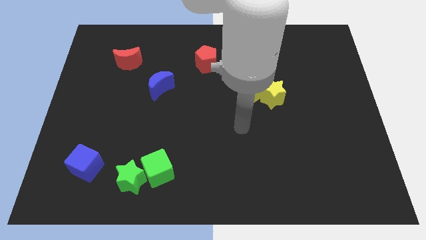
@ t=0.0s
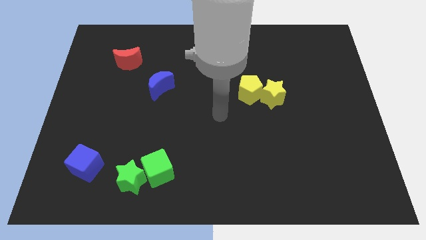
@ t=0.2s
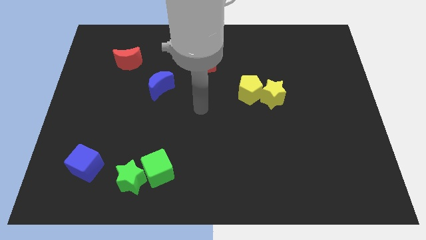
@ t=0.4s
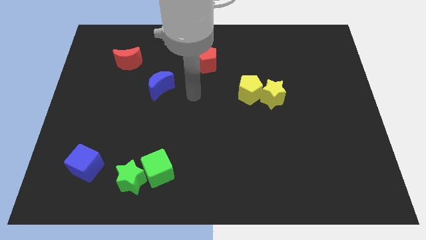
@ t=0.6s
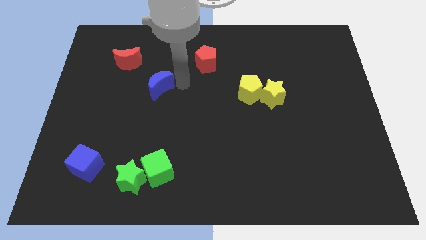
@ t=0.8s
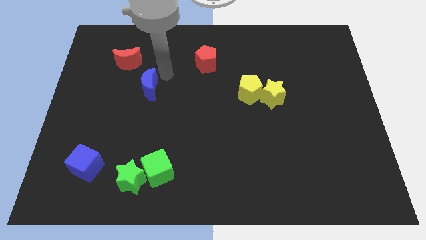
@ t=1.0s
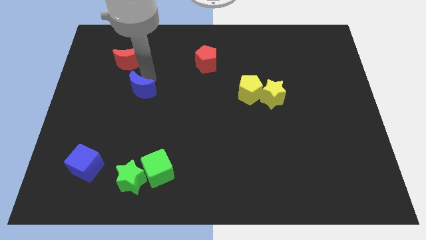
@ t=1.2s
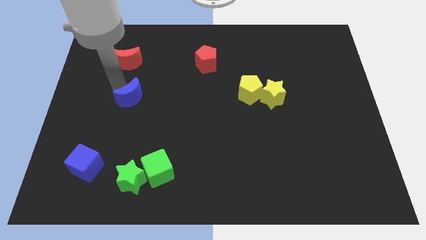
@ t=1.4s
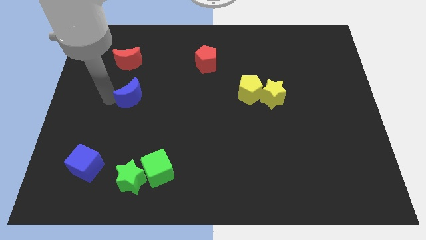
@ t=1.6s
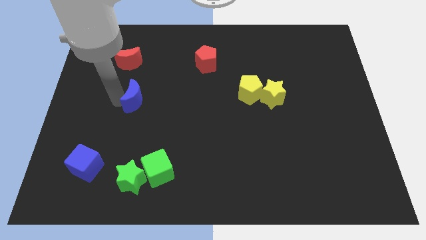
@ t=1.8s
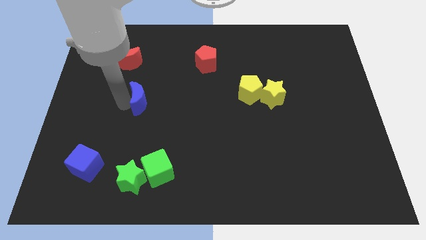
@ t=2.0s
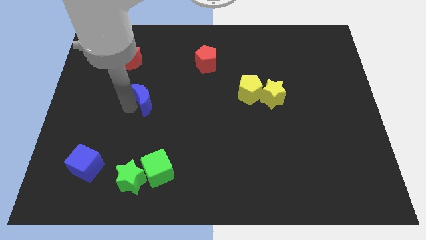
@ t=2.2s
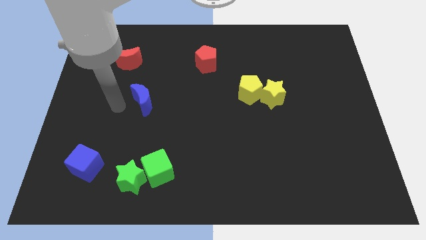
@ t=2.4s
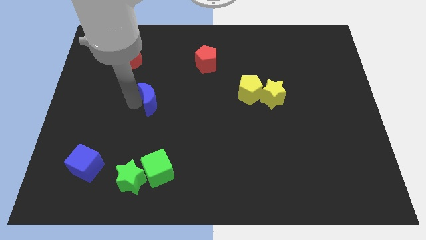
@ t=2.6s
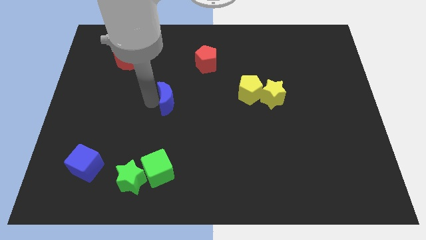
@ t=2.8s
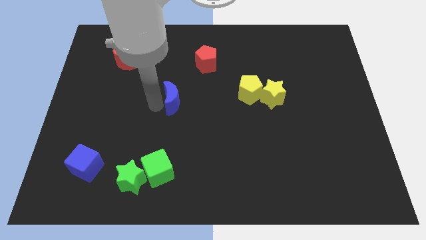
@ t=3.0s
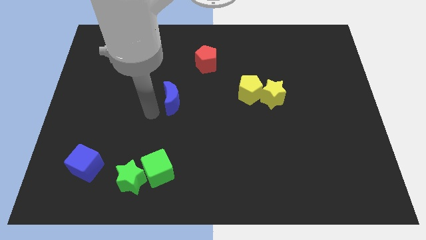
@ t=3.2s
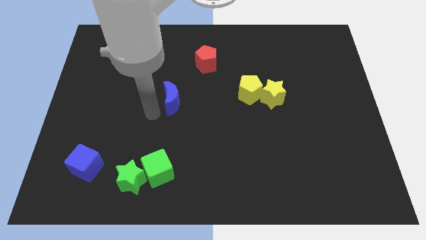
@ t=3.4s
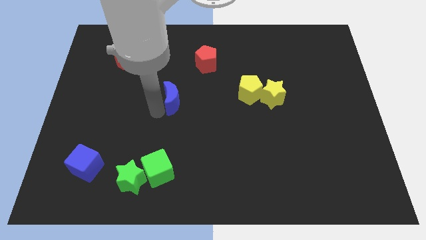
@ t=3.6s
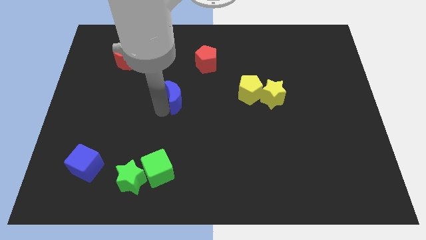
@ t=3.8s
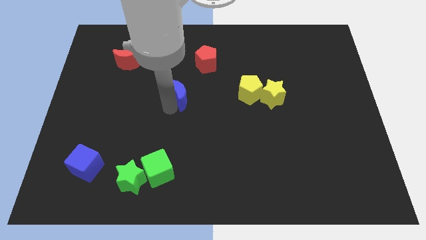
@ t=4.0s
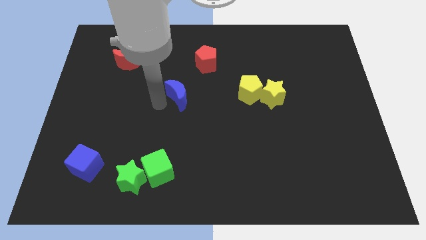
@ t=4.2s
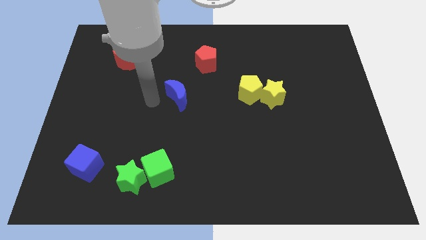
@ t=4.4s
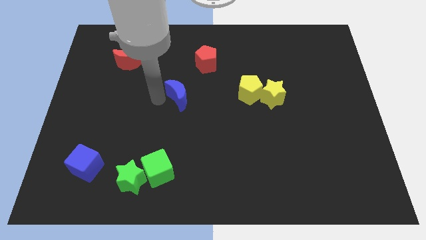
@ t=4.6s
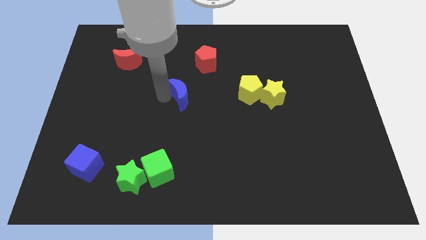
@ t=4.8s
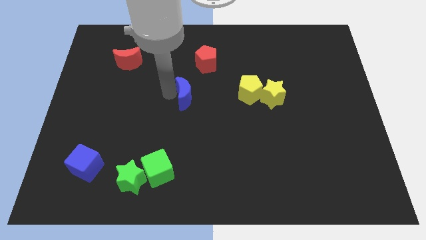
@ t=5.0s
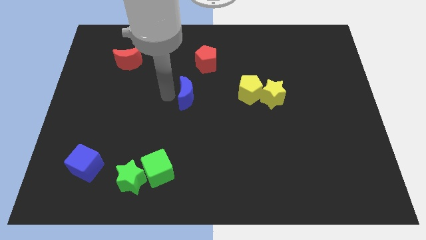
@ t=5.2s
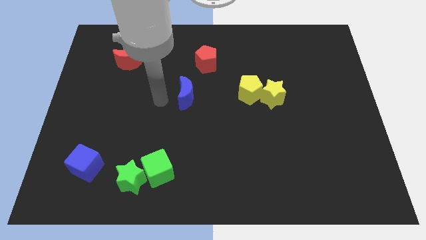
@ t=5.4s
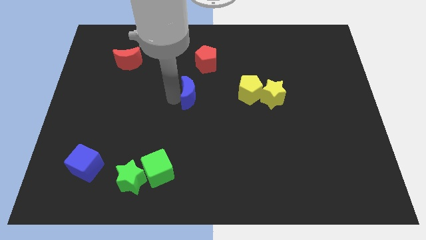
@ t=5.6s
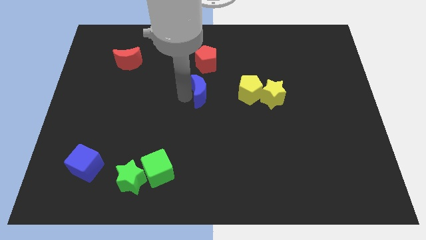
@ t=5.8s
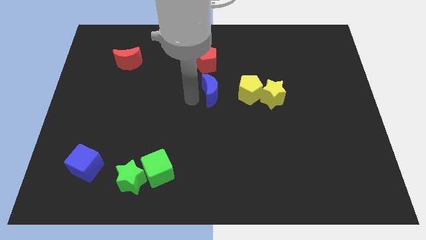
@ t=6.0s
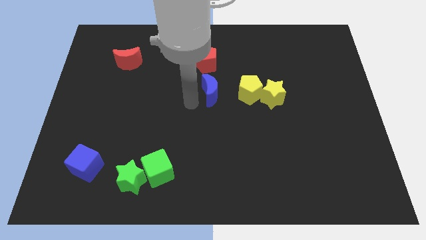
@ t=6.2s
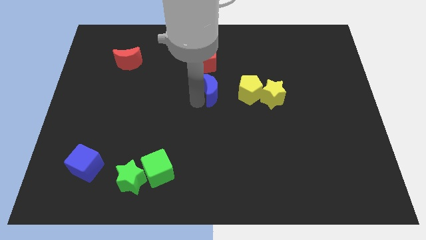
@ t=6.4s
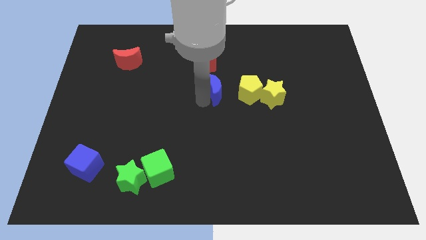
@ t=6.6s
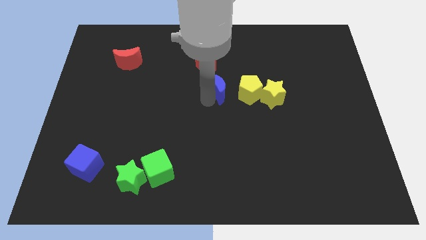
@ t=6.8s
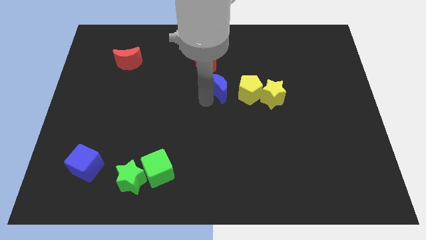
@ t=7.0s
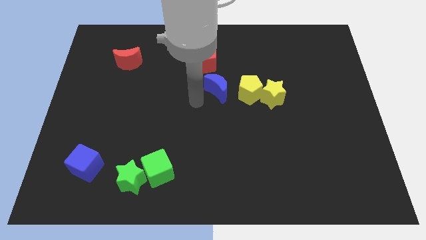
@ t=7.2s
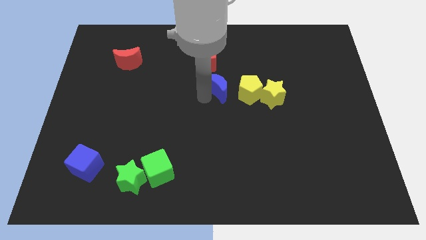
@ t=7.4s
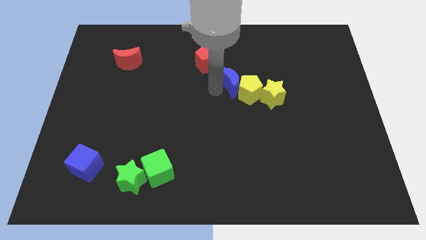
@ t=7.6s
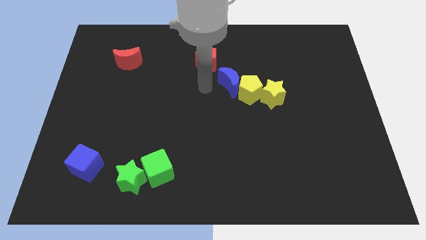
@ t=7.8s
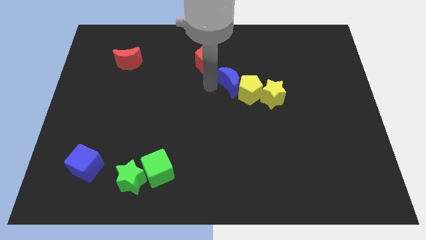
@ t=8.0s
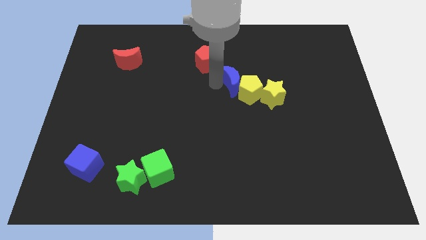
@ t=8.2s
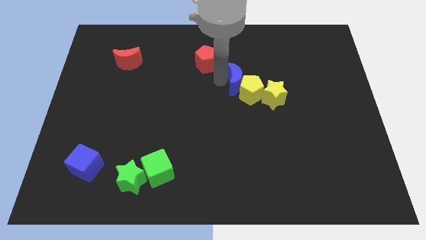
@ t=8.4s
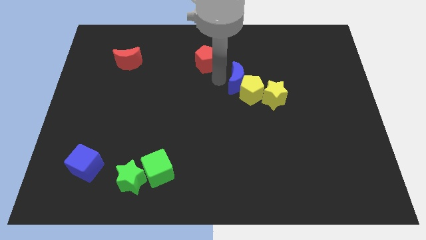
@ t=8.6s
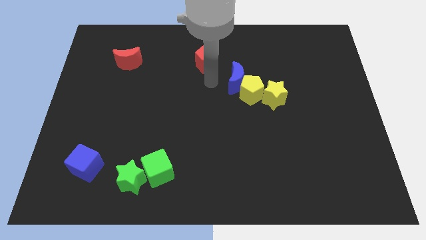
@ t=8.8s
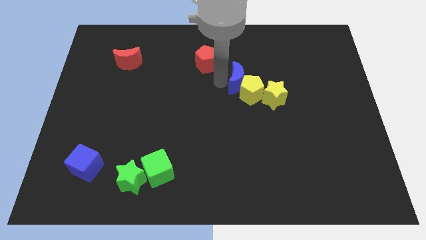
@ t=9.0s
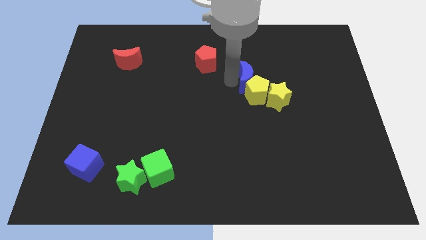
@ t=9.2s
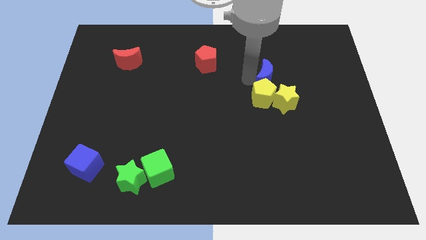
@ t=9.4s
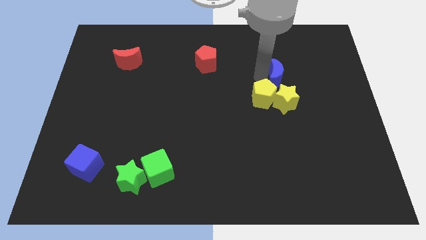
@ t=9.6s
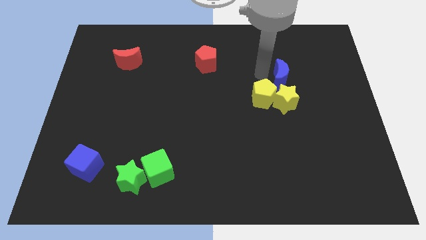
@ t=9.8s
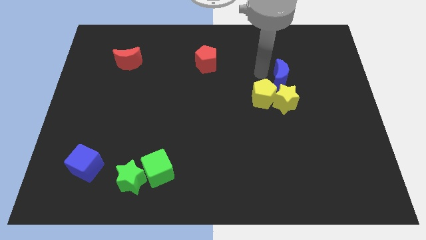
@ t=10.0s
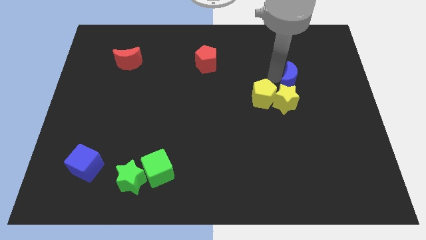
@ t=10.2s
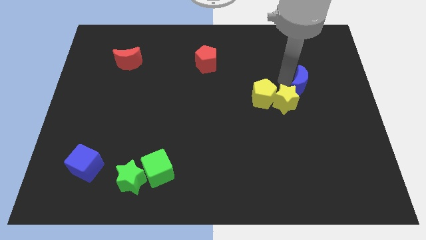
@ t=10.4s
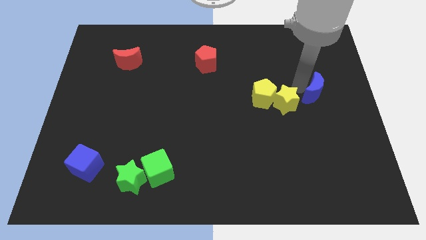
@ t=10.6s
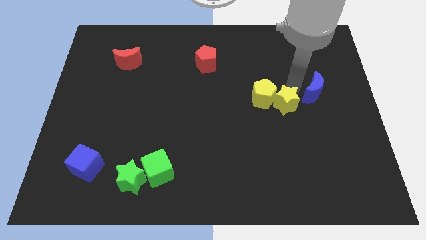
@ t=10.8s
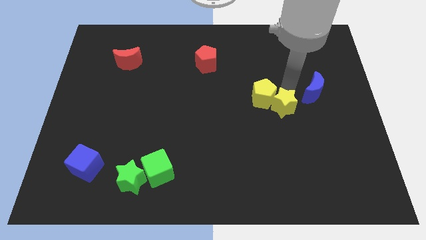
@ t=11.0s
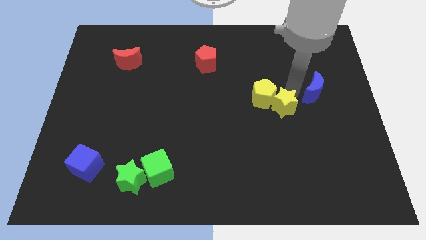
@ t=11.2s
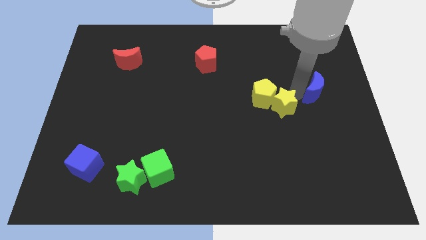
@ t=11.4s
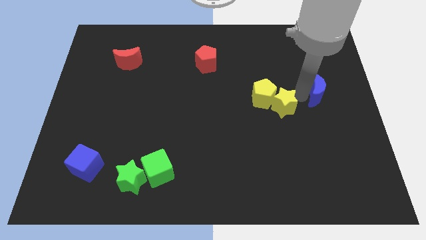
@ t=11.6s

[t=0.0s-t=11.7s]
move the blue moon to the center right

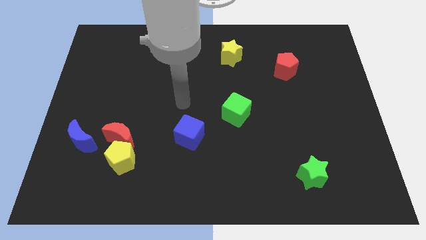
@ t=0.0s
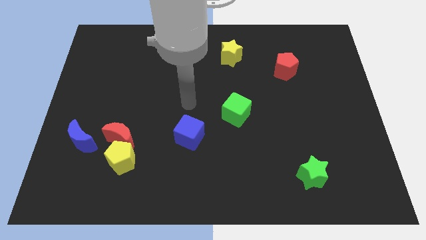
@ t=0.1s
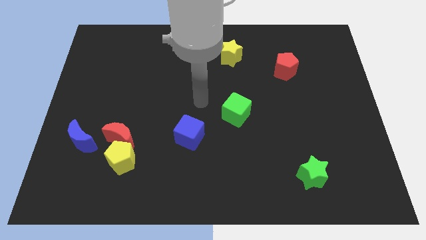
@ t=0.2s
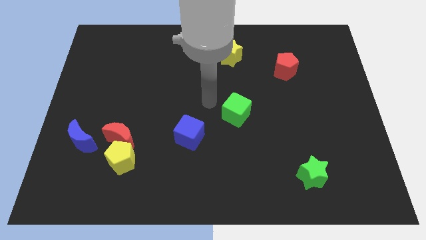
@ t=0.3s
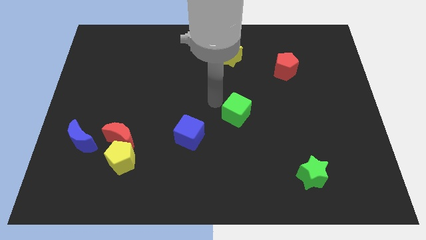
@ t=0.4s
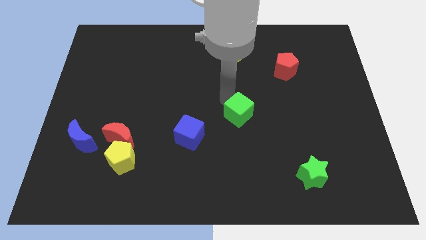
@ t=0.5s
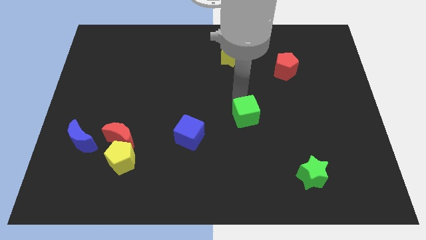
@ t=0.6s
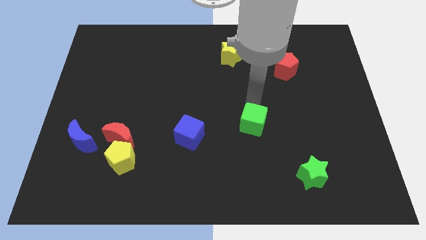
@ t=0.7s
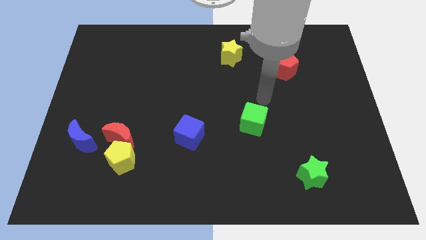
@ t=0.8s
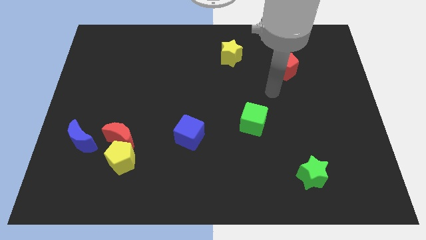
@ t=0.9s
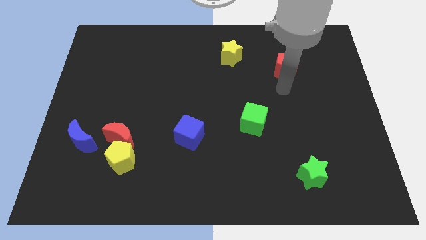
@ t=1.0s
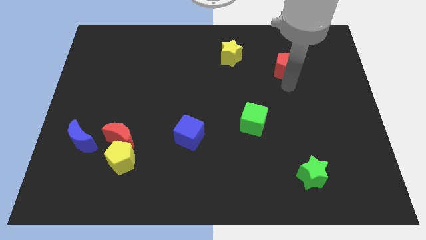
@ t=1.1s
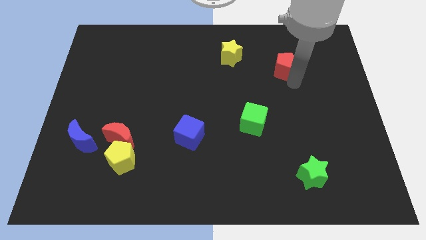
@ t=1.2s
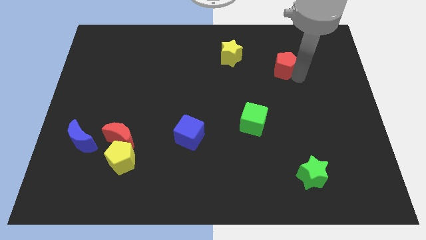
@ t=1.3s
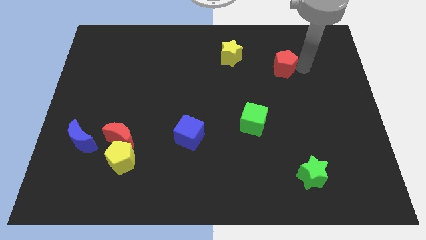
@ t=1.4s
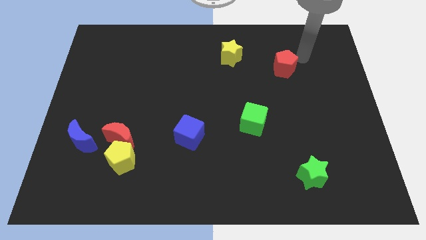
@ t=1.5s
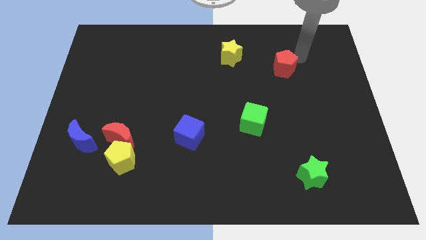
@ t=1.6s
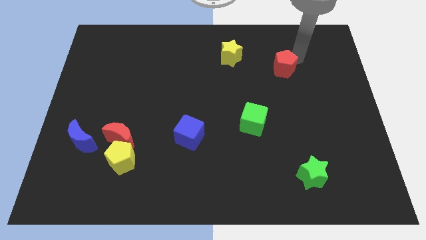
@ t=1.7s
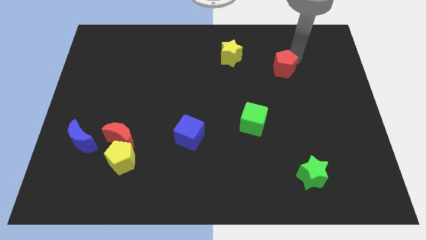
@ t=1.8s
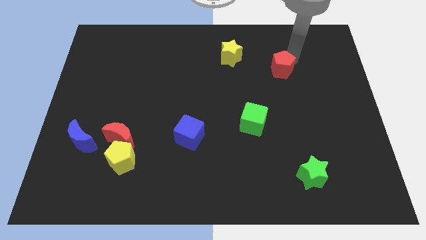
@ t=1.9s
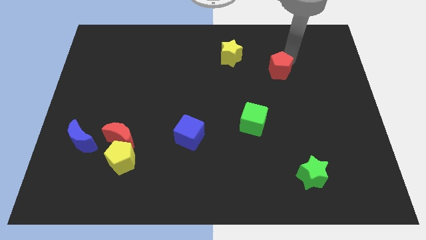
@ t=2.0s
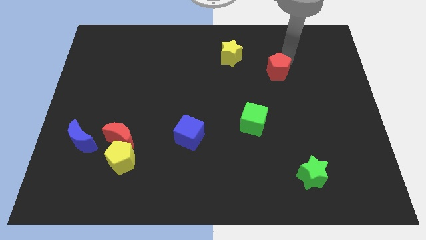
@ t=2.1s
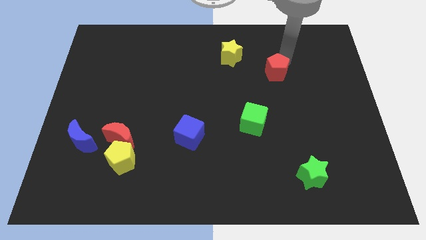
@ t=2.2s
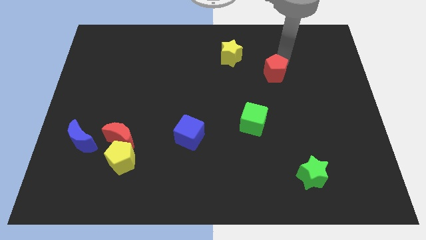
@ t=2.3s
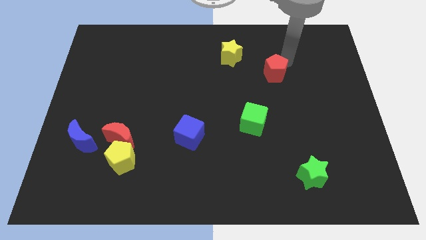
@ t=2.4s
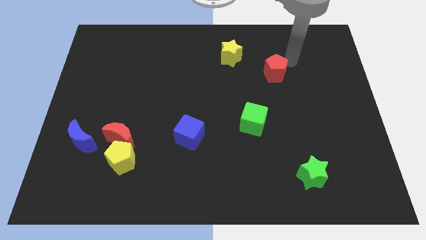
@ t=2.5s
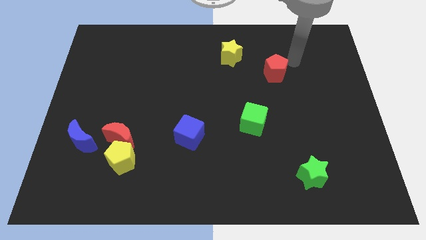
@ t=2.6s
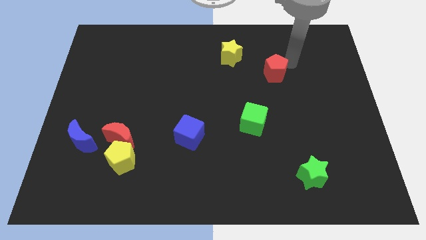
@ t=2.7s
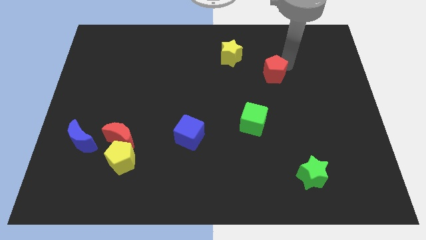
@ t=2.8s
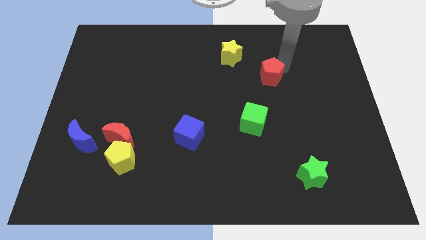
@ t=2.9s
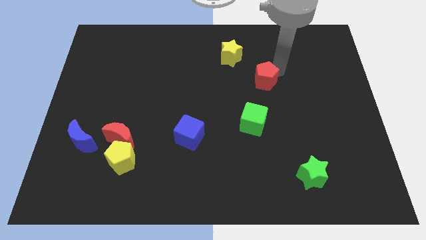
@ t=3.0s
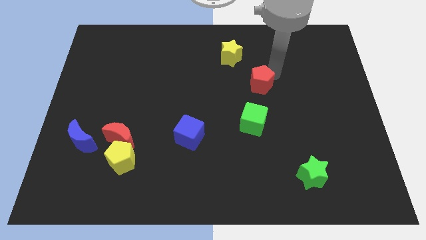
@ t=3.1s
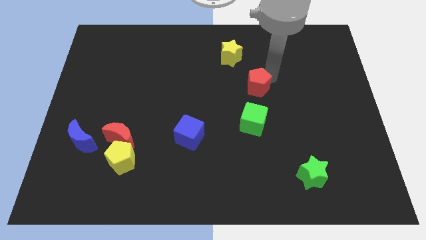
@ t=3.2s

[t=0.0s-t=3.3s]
push the red pentagon to the middle of the board
